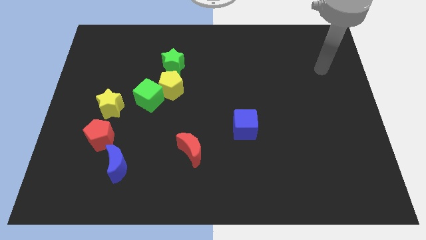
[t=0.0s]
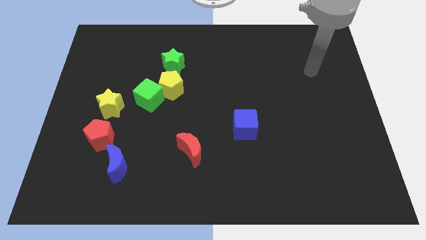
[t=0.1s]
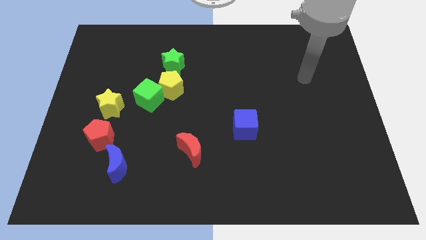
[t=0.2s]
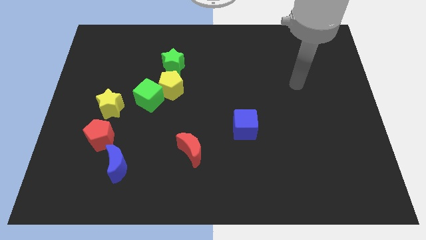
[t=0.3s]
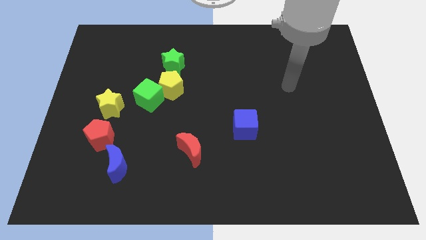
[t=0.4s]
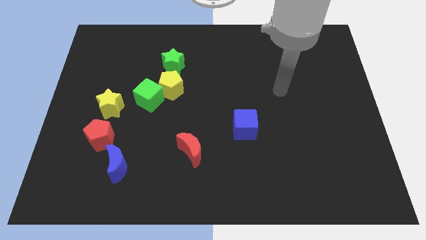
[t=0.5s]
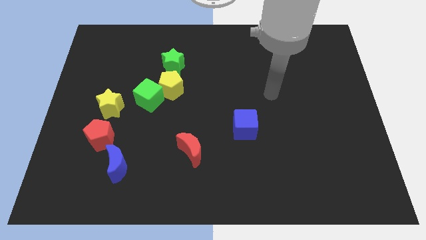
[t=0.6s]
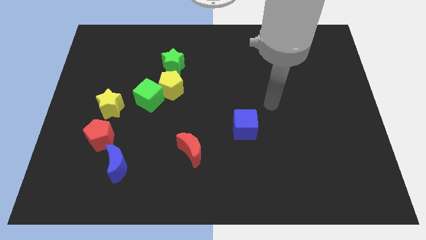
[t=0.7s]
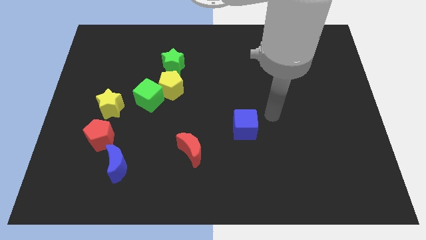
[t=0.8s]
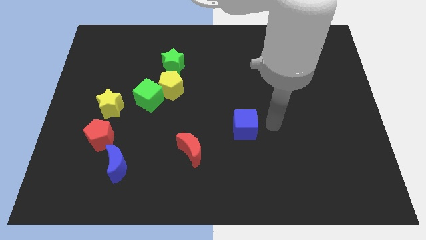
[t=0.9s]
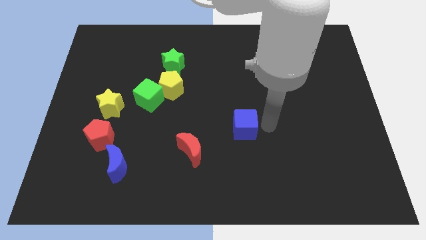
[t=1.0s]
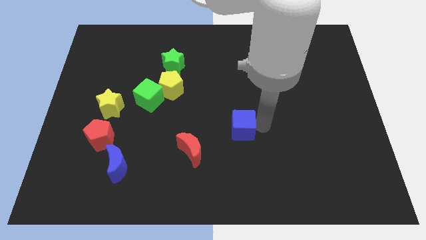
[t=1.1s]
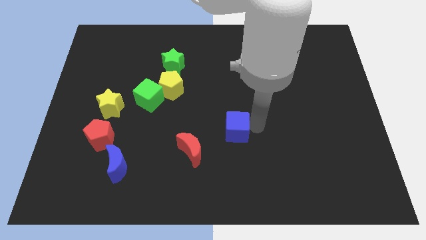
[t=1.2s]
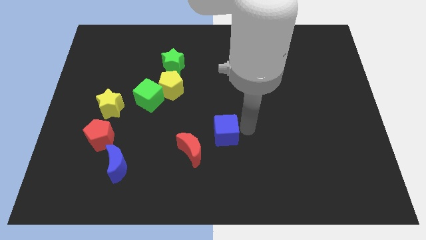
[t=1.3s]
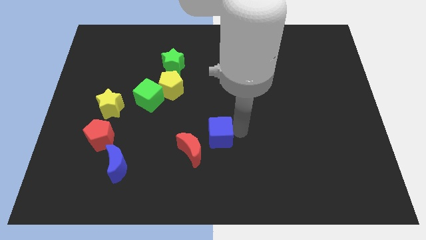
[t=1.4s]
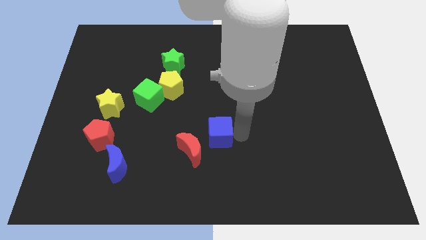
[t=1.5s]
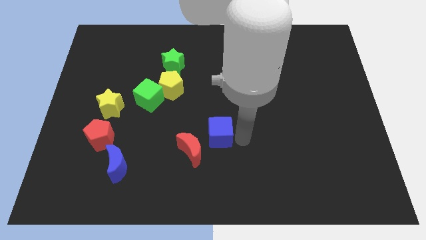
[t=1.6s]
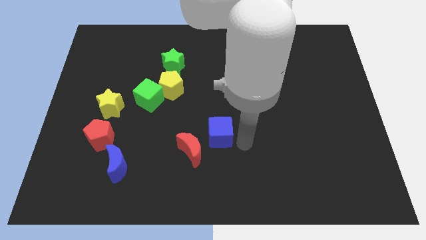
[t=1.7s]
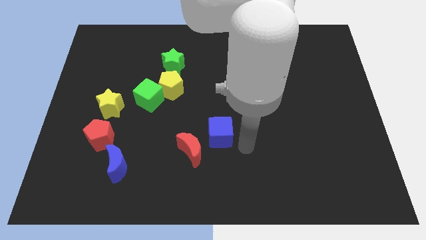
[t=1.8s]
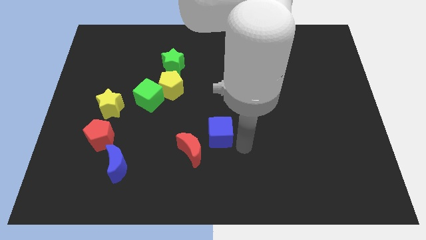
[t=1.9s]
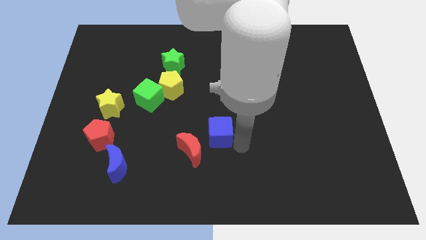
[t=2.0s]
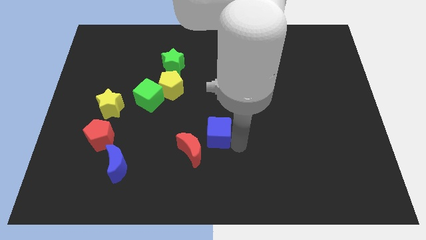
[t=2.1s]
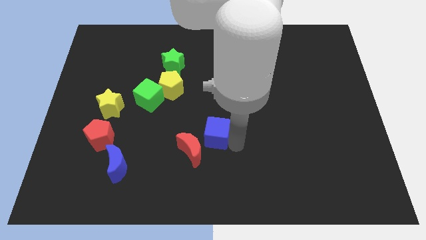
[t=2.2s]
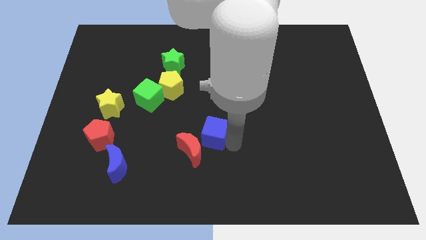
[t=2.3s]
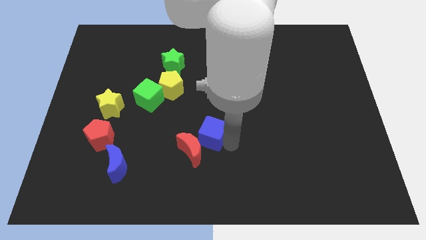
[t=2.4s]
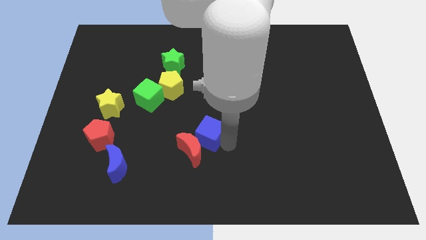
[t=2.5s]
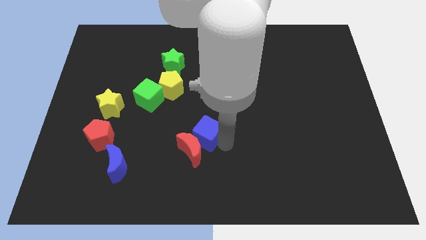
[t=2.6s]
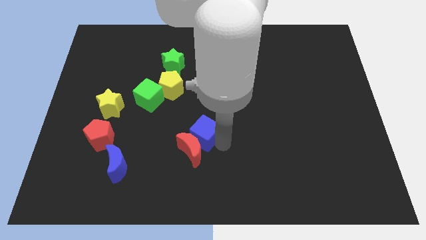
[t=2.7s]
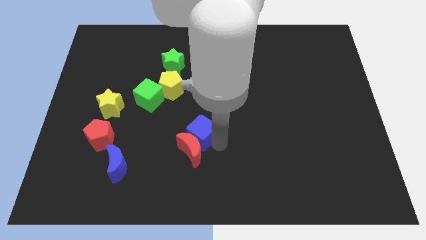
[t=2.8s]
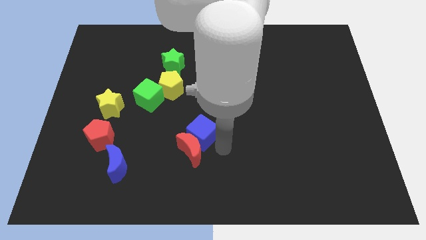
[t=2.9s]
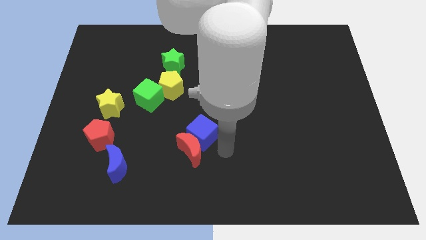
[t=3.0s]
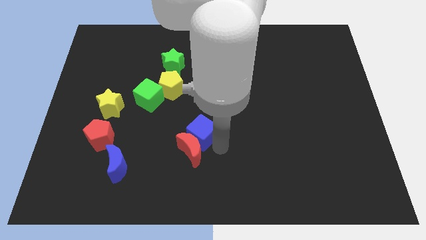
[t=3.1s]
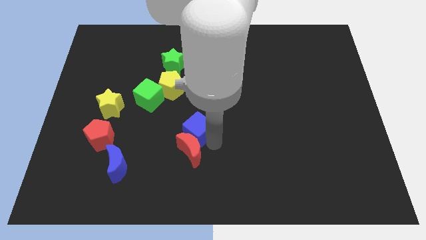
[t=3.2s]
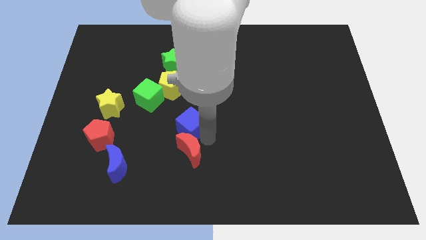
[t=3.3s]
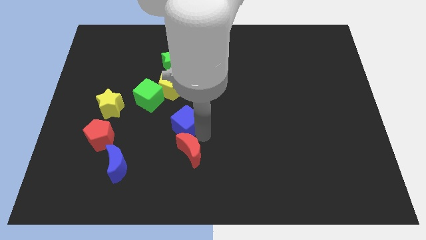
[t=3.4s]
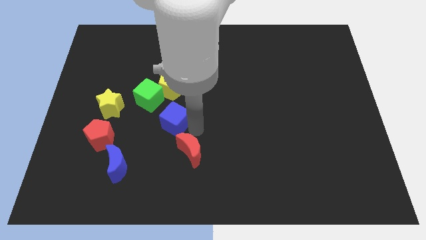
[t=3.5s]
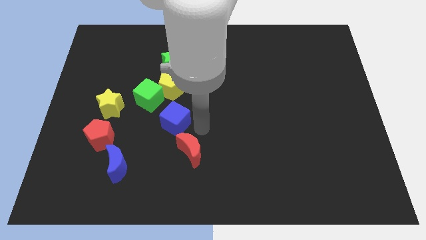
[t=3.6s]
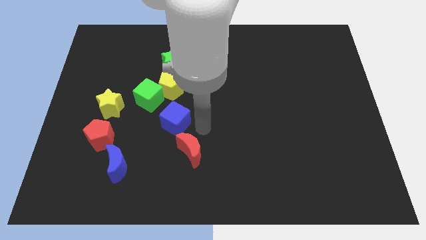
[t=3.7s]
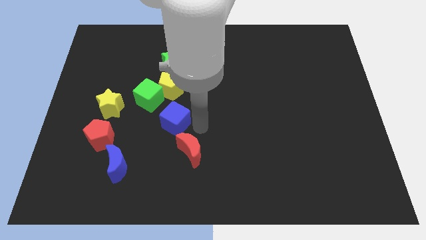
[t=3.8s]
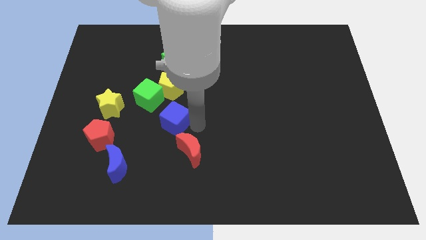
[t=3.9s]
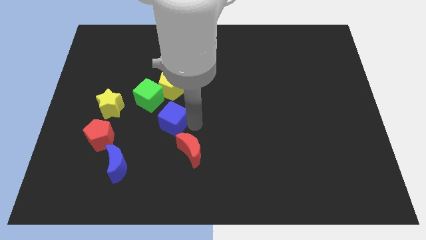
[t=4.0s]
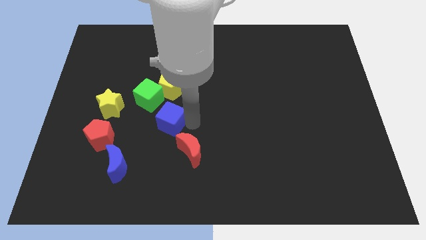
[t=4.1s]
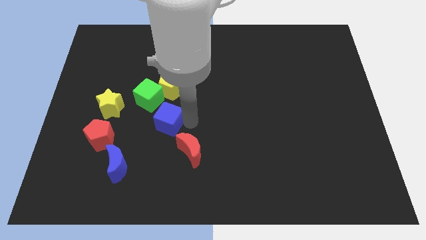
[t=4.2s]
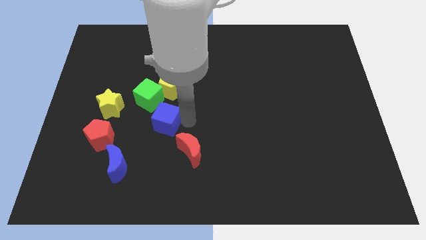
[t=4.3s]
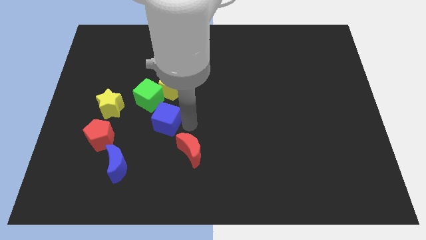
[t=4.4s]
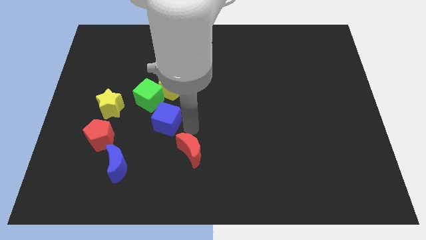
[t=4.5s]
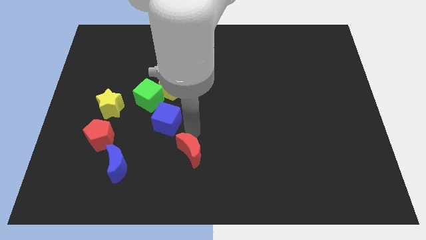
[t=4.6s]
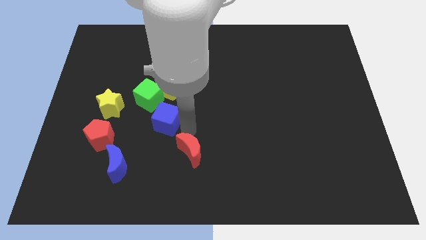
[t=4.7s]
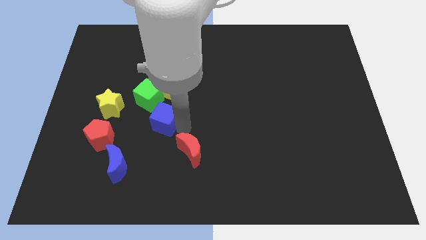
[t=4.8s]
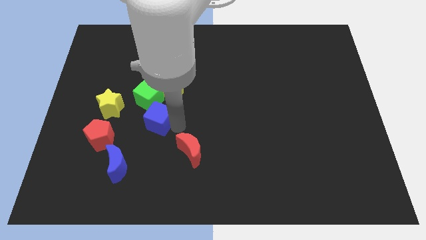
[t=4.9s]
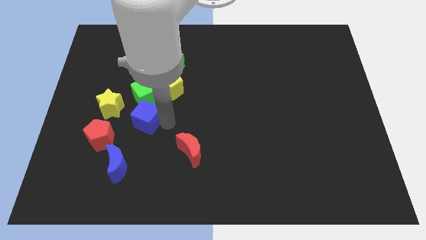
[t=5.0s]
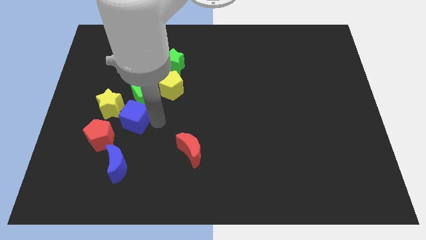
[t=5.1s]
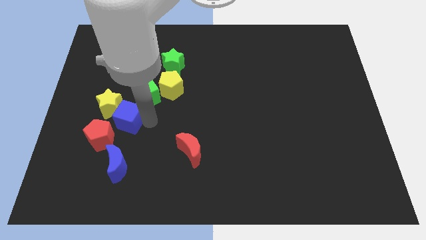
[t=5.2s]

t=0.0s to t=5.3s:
push the blue cube to the yellow star

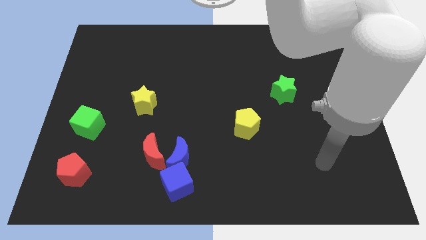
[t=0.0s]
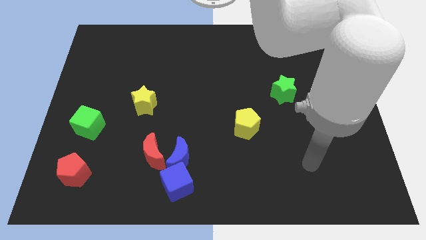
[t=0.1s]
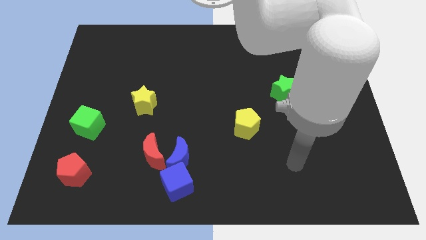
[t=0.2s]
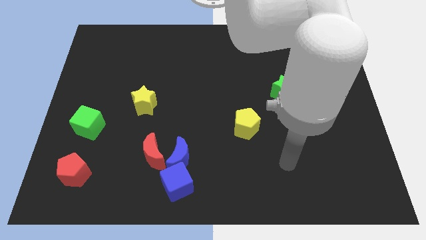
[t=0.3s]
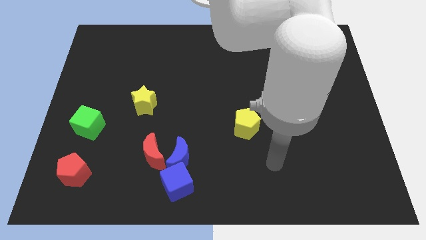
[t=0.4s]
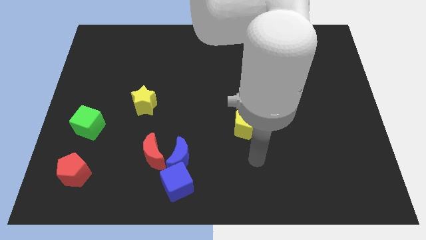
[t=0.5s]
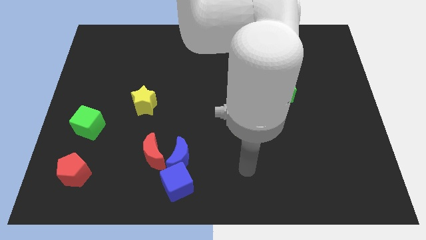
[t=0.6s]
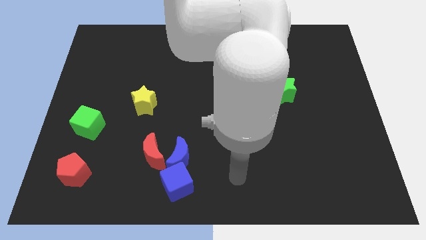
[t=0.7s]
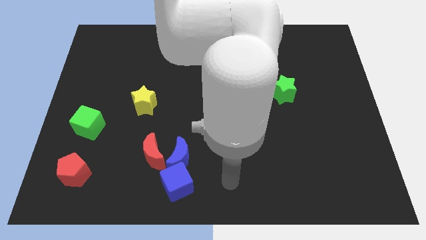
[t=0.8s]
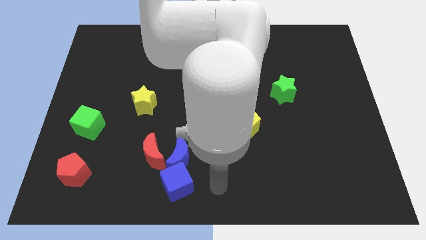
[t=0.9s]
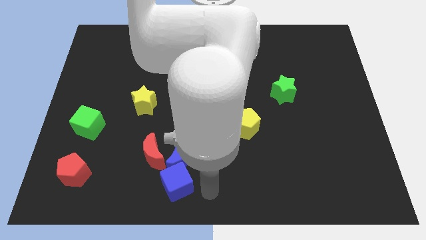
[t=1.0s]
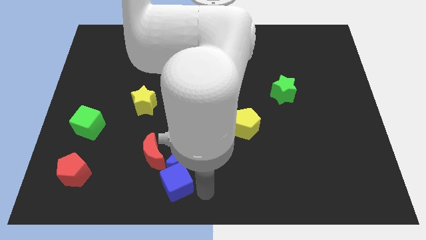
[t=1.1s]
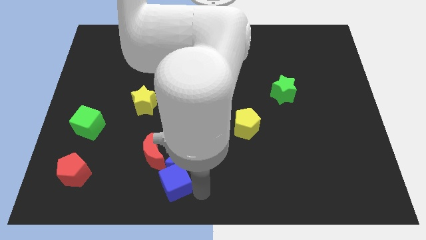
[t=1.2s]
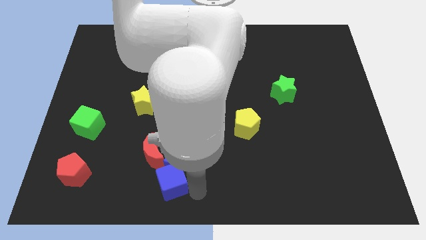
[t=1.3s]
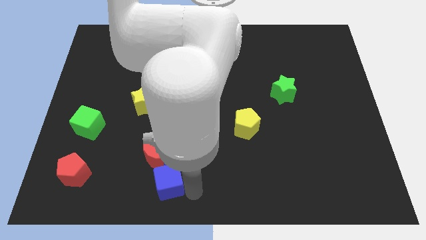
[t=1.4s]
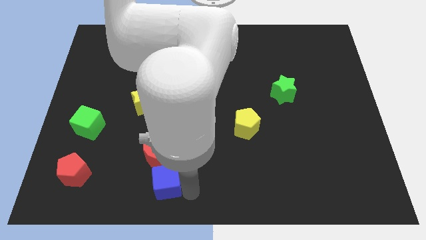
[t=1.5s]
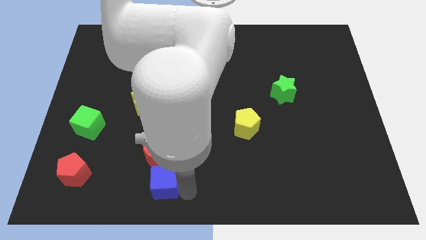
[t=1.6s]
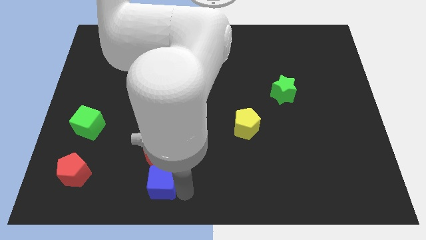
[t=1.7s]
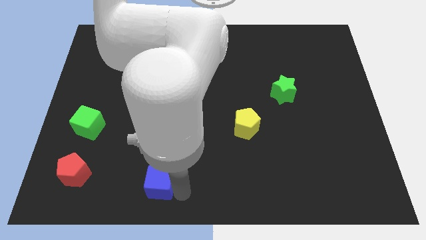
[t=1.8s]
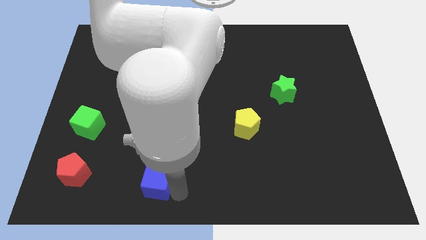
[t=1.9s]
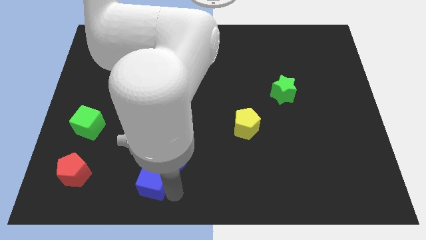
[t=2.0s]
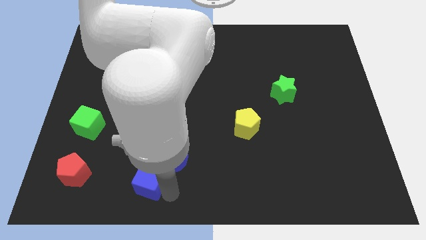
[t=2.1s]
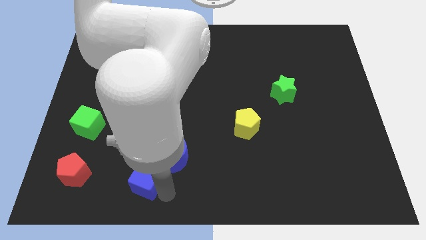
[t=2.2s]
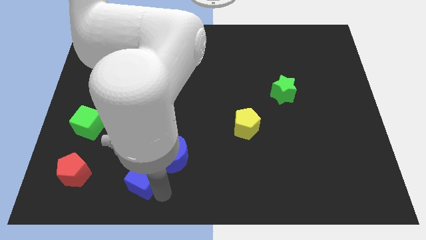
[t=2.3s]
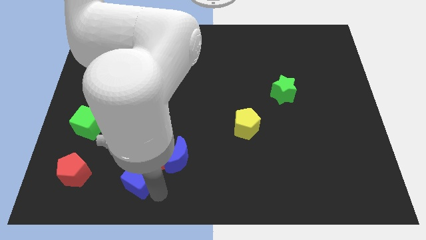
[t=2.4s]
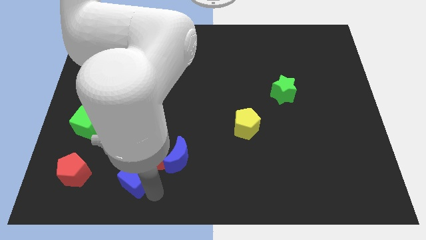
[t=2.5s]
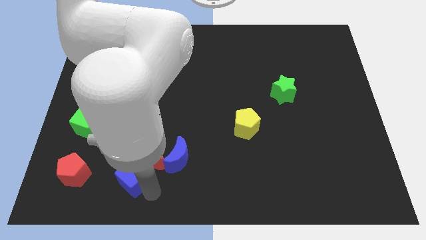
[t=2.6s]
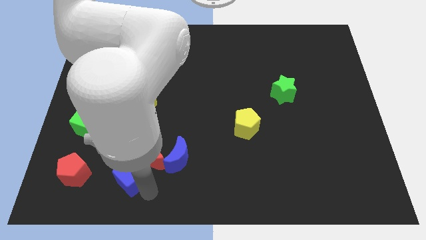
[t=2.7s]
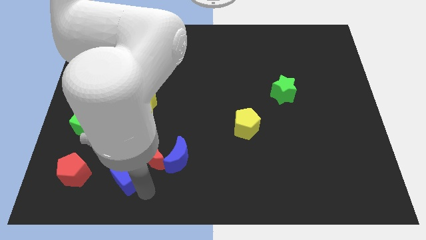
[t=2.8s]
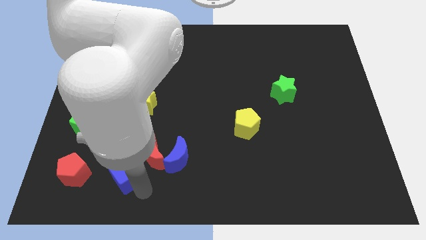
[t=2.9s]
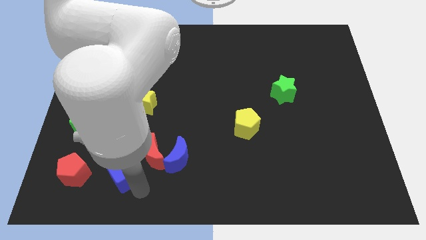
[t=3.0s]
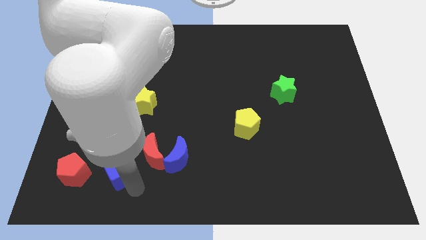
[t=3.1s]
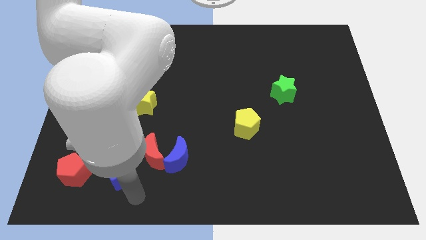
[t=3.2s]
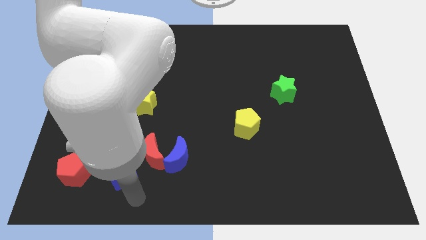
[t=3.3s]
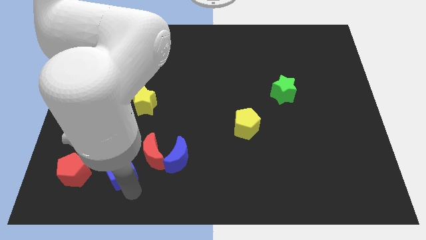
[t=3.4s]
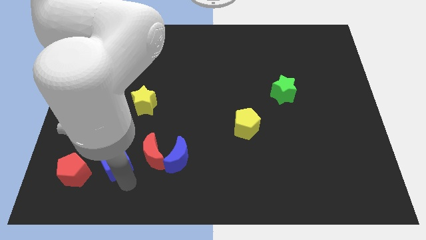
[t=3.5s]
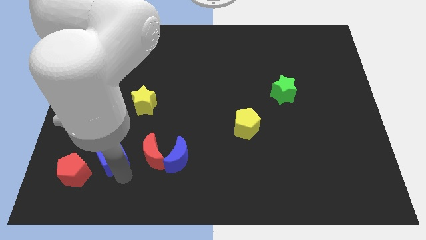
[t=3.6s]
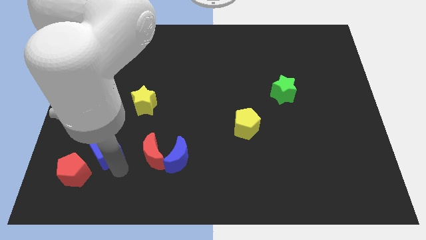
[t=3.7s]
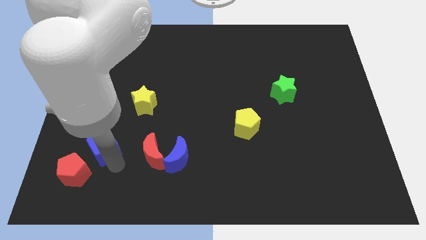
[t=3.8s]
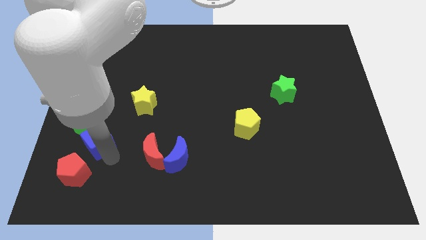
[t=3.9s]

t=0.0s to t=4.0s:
put the blue cube towards the green cube
